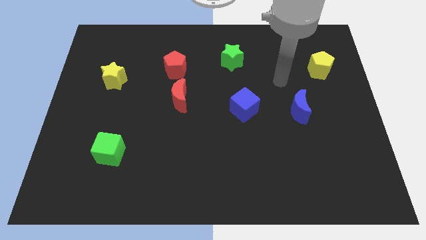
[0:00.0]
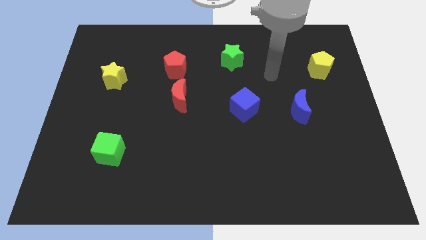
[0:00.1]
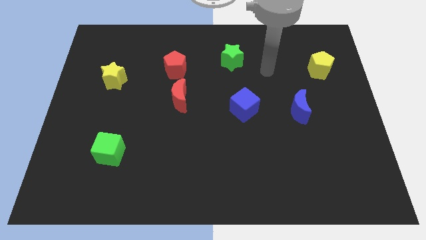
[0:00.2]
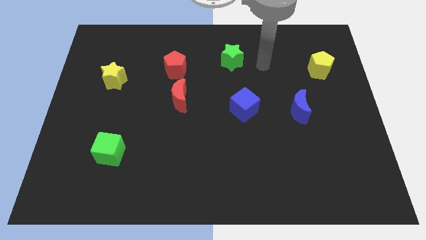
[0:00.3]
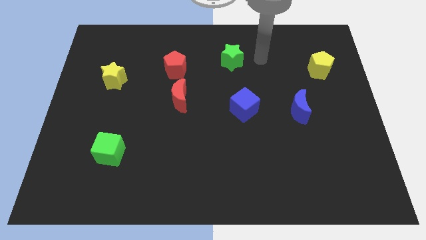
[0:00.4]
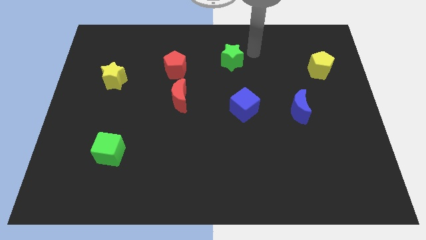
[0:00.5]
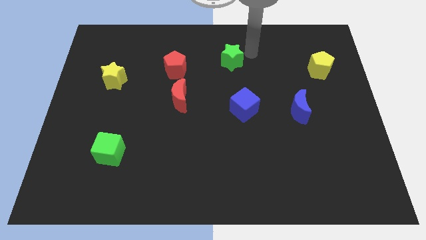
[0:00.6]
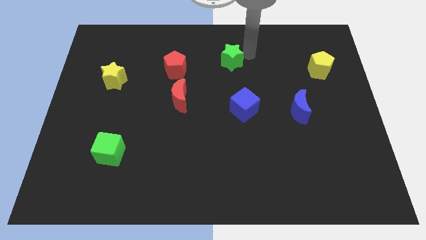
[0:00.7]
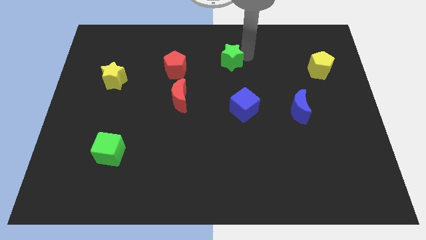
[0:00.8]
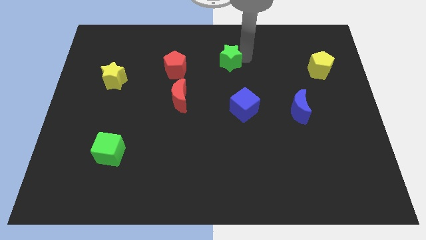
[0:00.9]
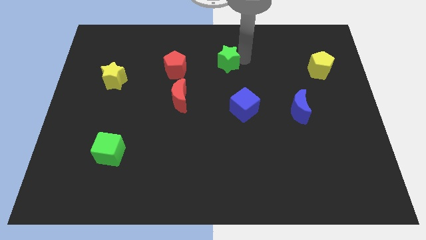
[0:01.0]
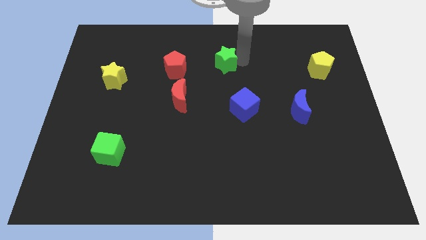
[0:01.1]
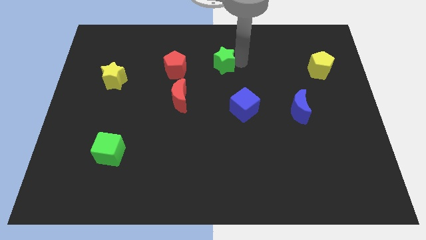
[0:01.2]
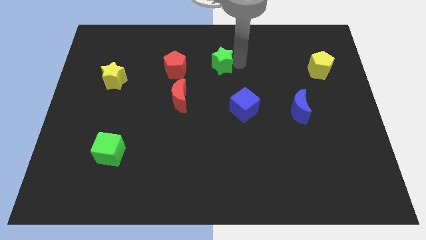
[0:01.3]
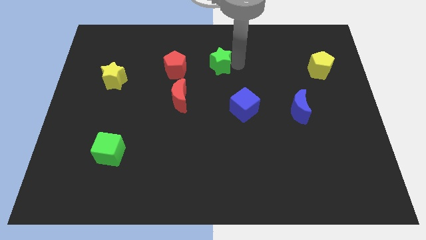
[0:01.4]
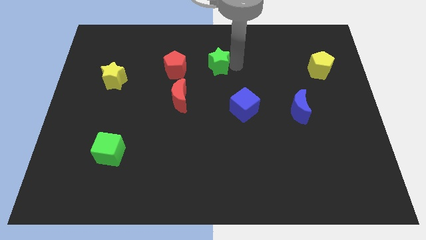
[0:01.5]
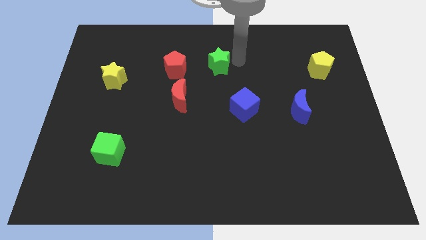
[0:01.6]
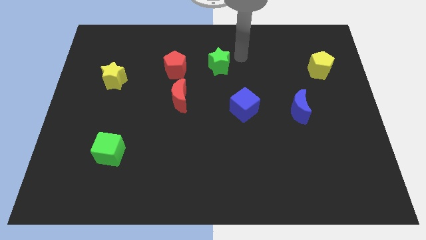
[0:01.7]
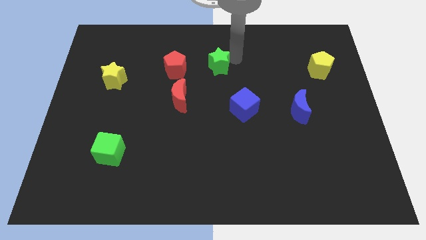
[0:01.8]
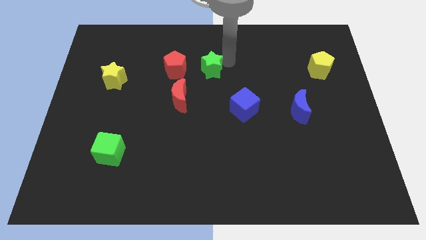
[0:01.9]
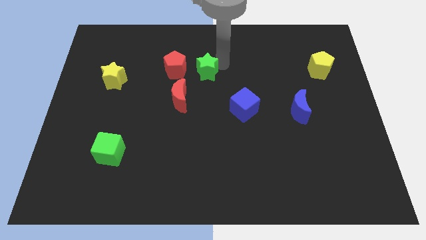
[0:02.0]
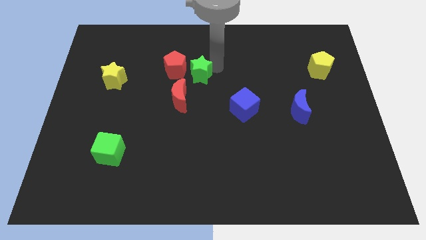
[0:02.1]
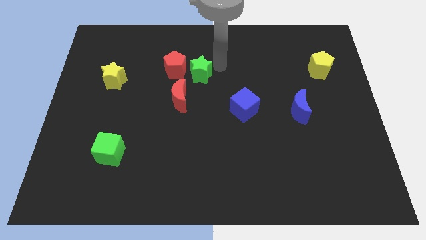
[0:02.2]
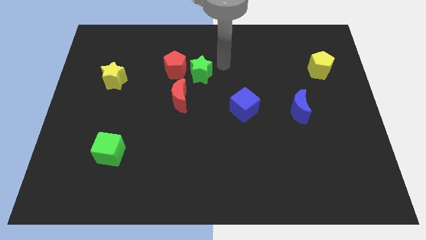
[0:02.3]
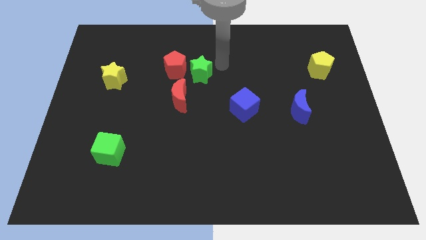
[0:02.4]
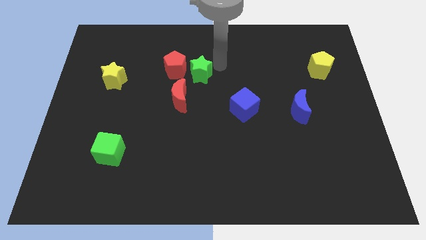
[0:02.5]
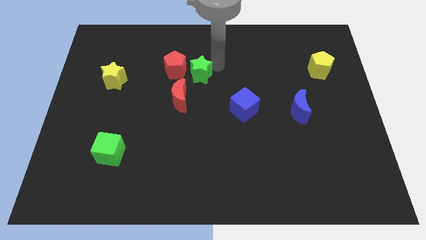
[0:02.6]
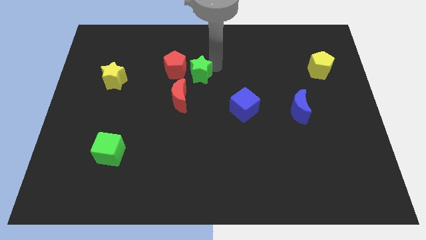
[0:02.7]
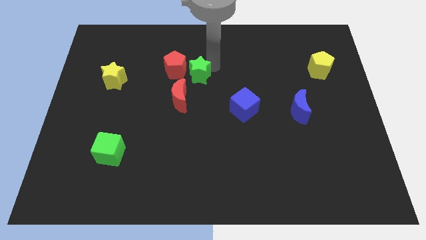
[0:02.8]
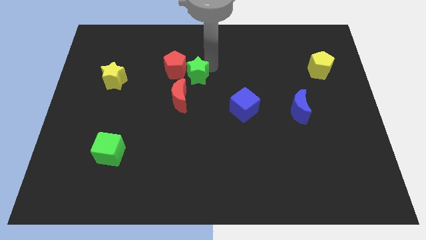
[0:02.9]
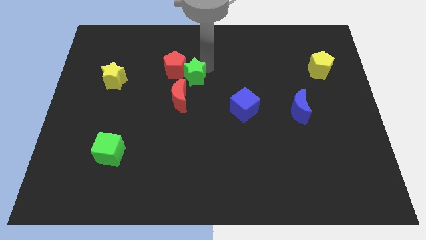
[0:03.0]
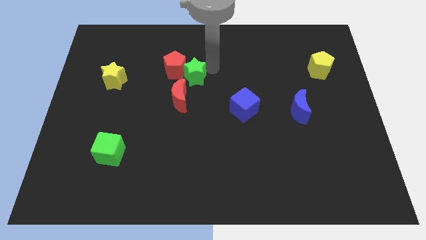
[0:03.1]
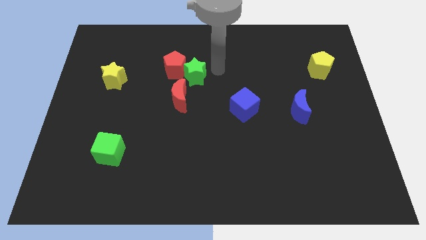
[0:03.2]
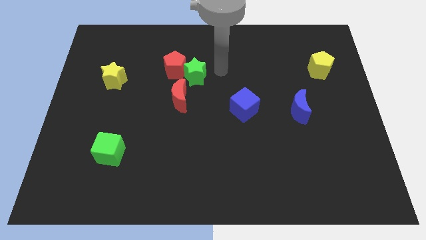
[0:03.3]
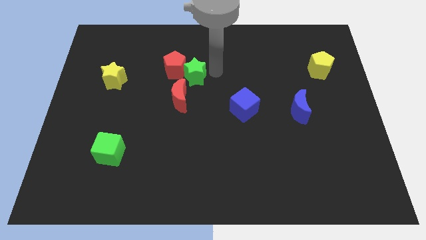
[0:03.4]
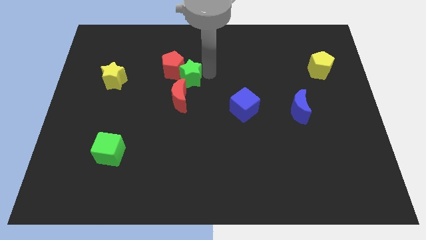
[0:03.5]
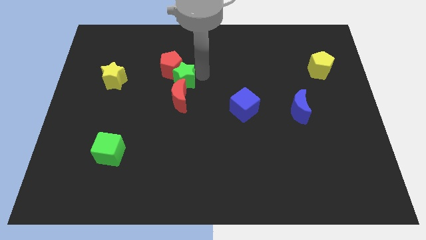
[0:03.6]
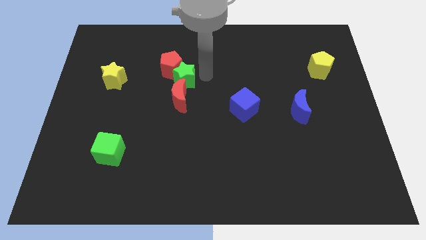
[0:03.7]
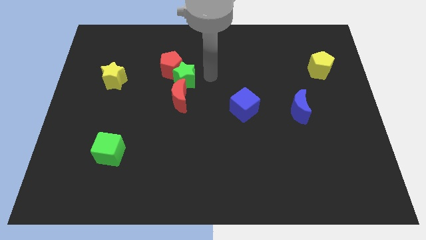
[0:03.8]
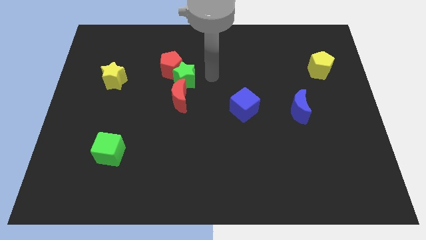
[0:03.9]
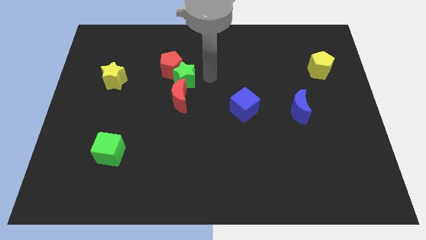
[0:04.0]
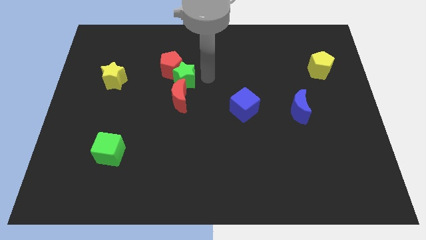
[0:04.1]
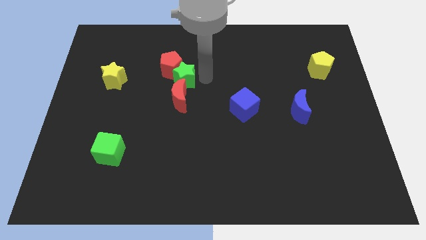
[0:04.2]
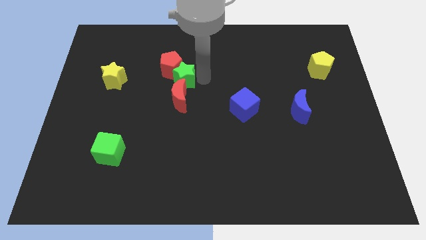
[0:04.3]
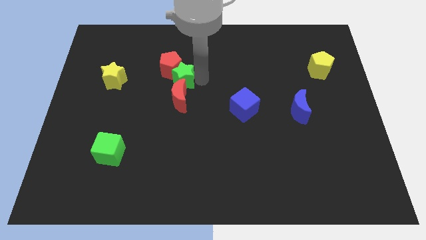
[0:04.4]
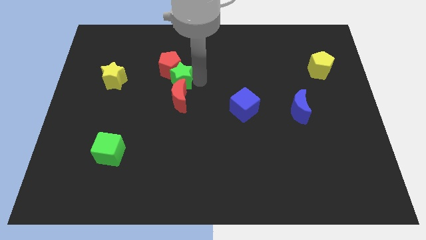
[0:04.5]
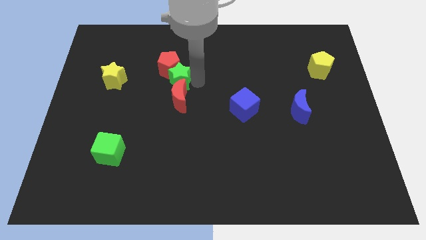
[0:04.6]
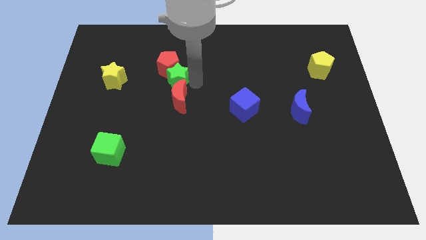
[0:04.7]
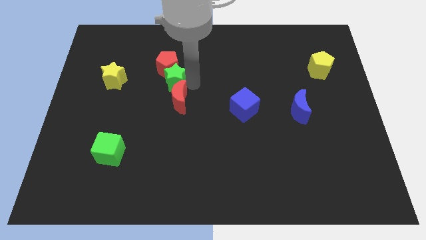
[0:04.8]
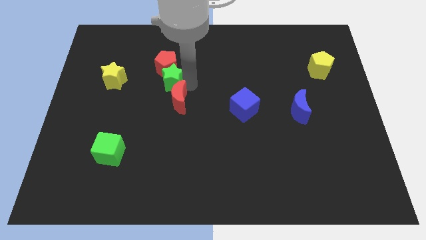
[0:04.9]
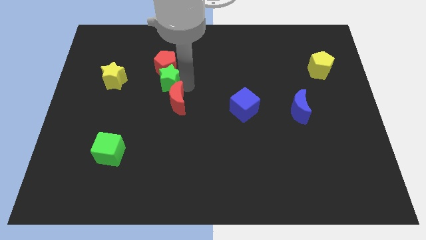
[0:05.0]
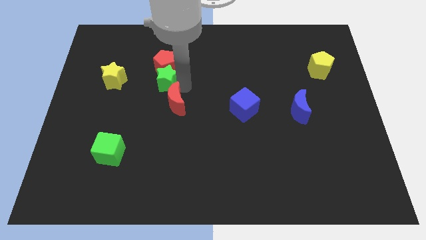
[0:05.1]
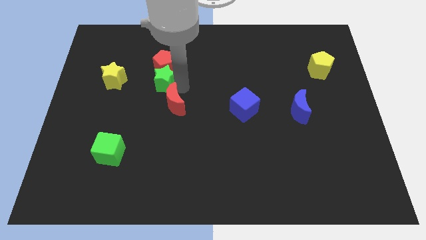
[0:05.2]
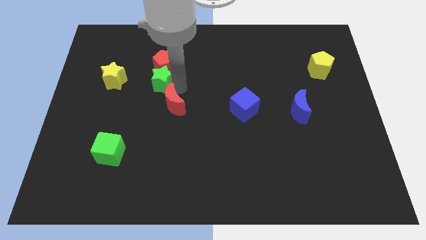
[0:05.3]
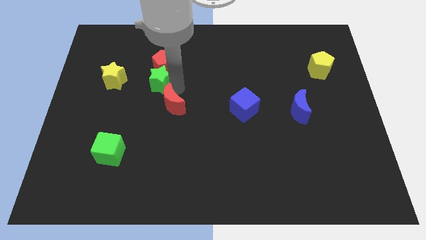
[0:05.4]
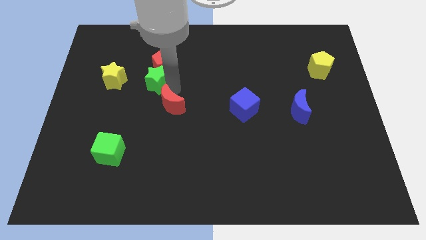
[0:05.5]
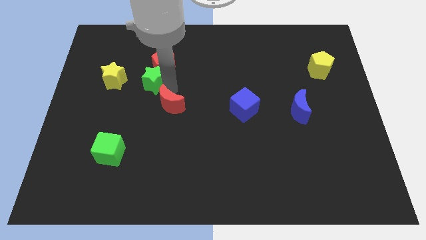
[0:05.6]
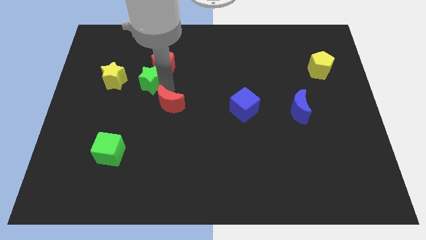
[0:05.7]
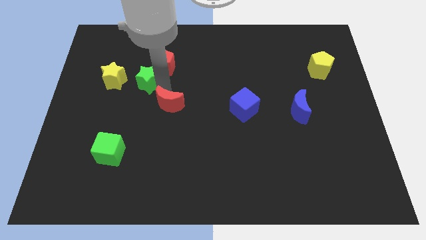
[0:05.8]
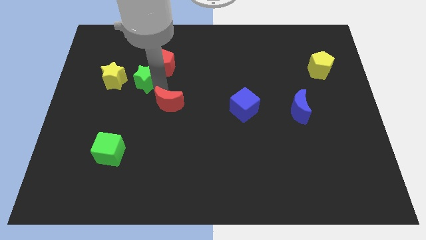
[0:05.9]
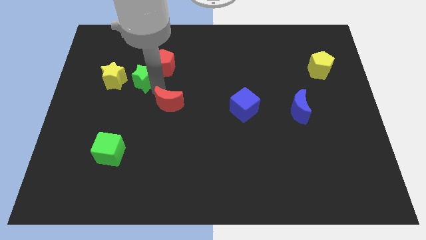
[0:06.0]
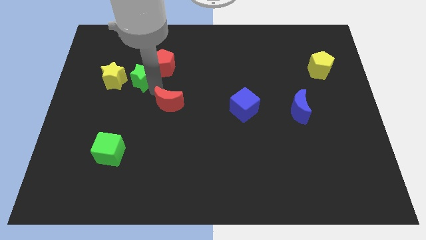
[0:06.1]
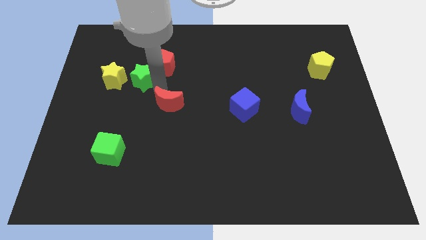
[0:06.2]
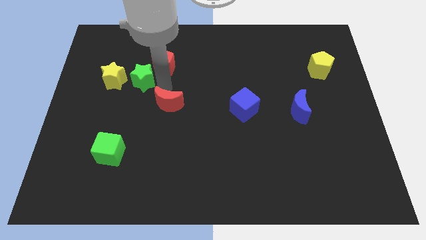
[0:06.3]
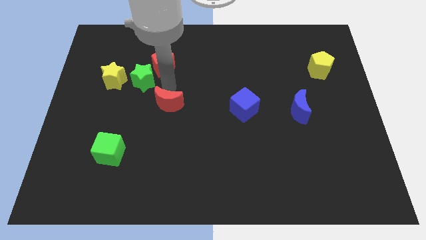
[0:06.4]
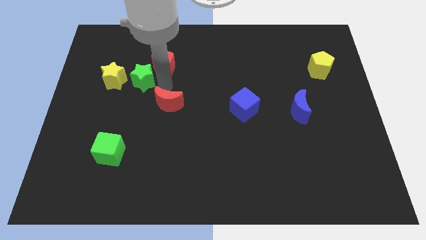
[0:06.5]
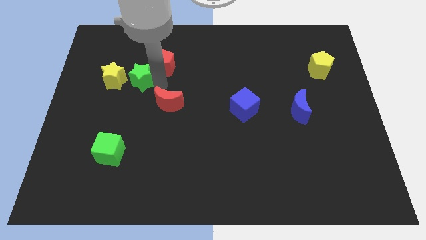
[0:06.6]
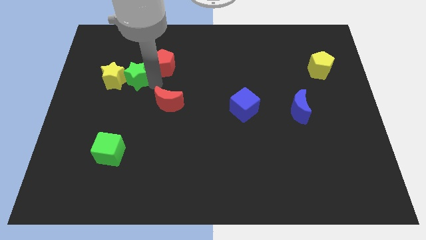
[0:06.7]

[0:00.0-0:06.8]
slide the green star close to the yellow star
